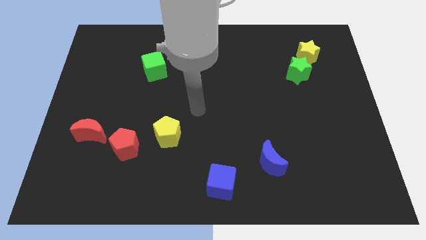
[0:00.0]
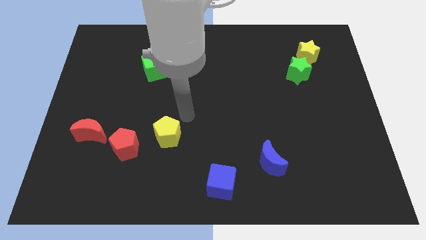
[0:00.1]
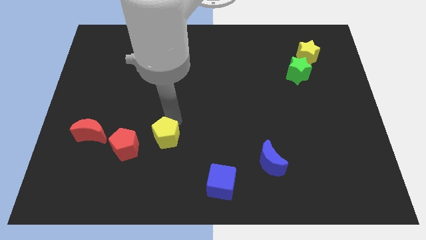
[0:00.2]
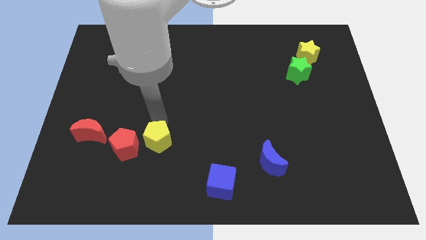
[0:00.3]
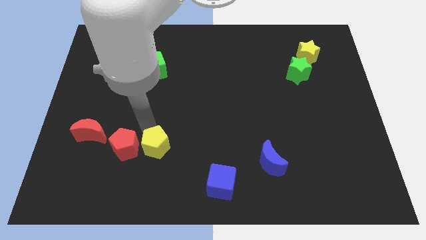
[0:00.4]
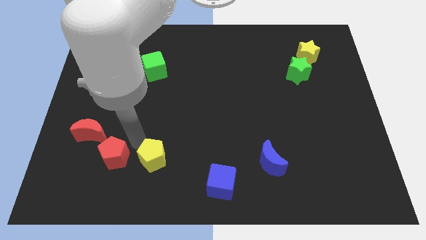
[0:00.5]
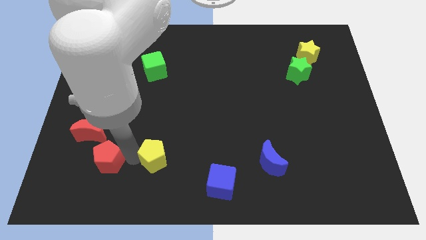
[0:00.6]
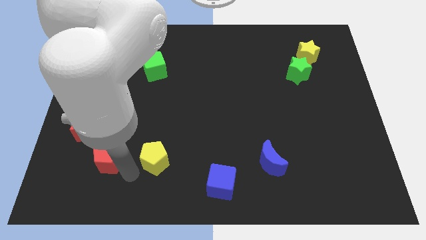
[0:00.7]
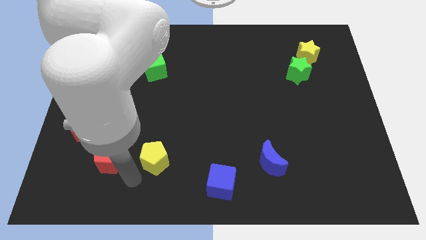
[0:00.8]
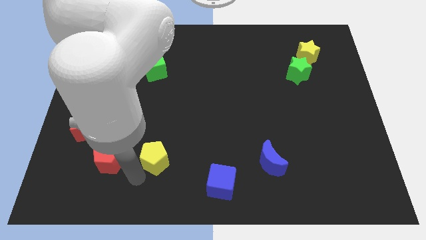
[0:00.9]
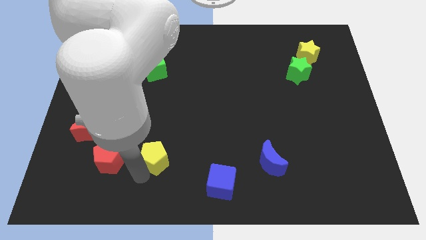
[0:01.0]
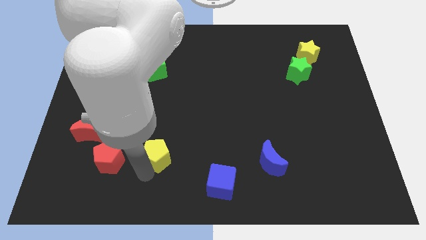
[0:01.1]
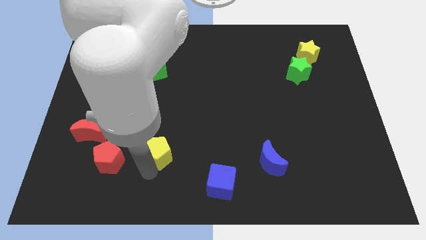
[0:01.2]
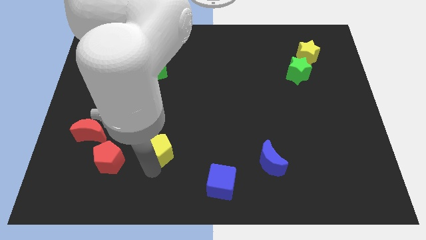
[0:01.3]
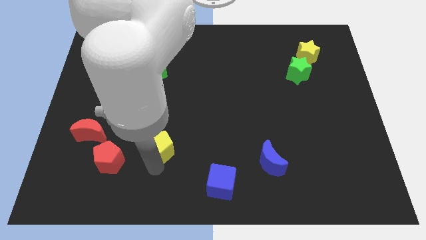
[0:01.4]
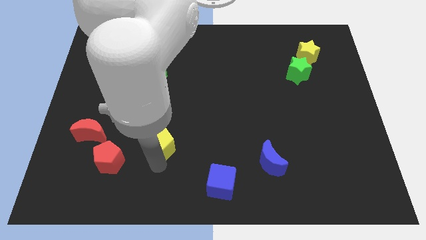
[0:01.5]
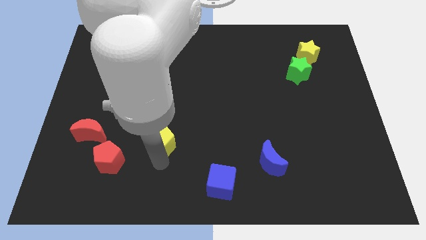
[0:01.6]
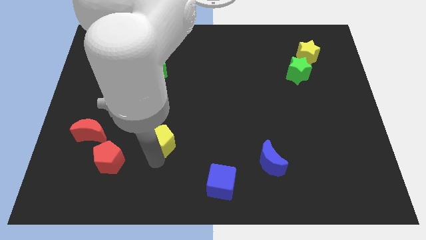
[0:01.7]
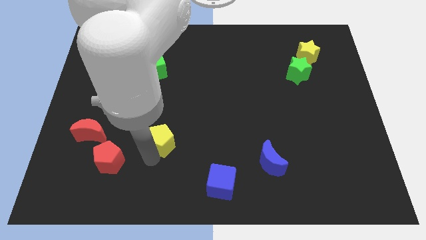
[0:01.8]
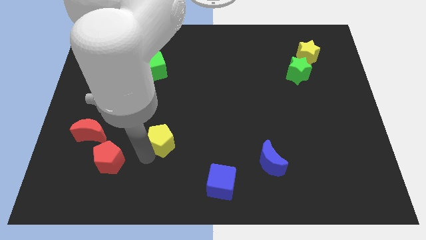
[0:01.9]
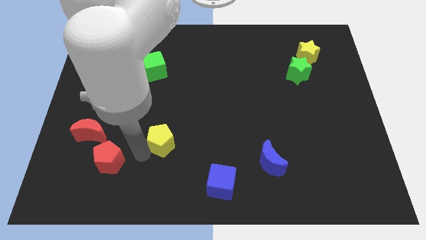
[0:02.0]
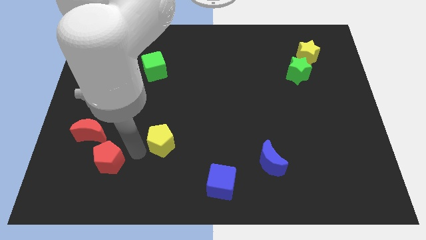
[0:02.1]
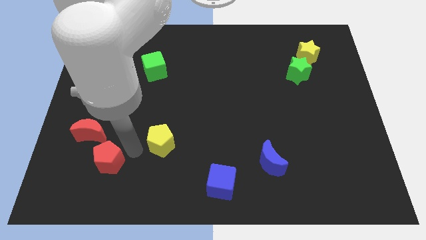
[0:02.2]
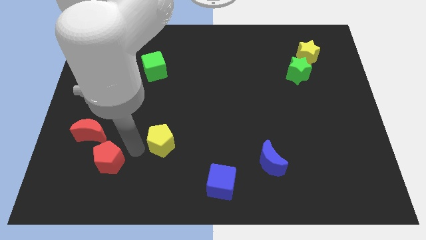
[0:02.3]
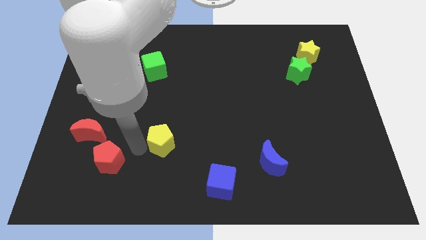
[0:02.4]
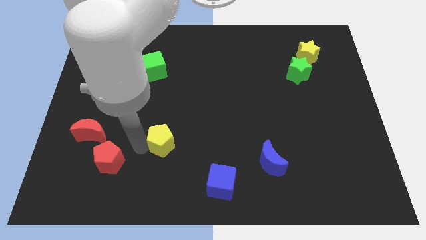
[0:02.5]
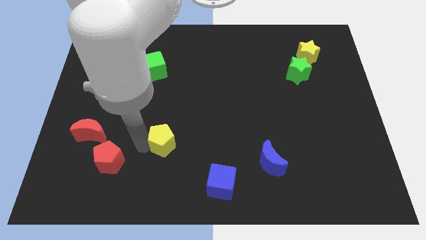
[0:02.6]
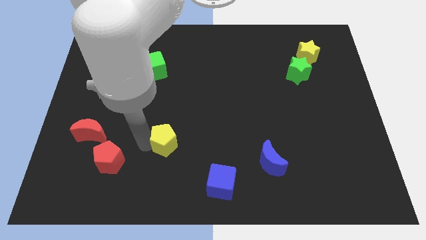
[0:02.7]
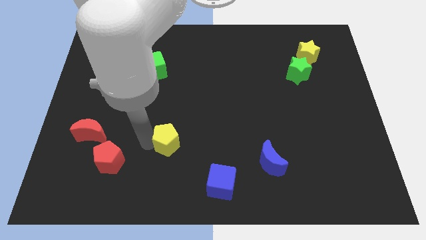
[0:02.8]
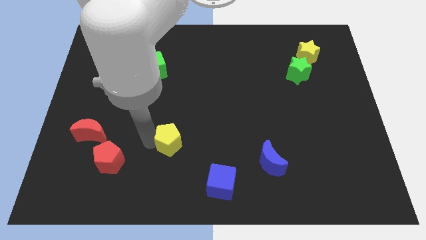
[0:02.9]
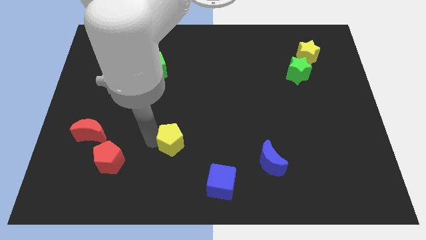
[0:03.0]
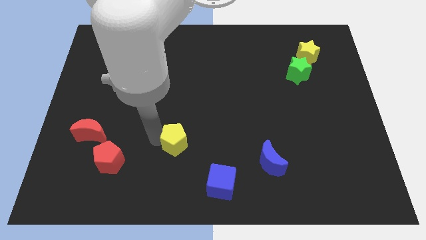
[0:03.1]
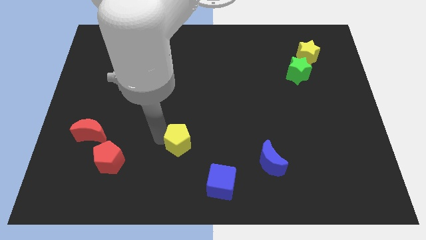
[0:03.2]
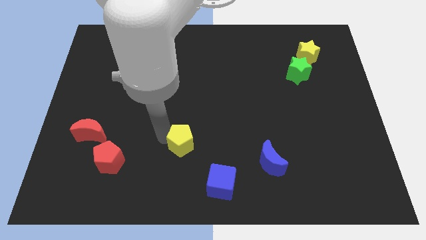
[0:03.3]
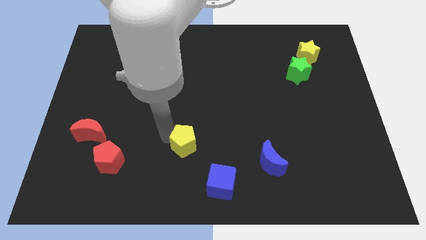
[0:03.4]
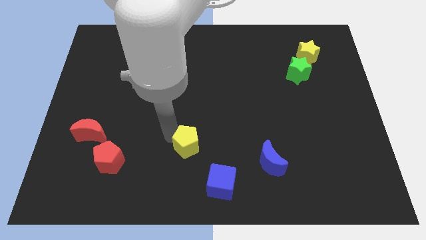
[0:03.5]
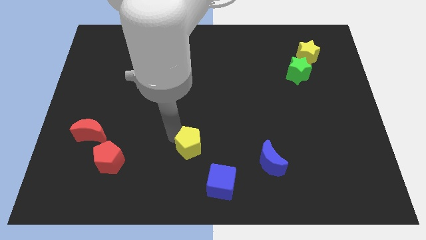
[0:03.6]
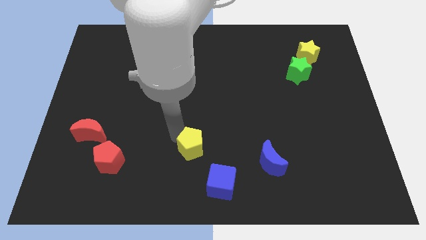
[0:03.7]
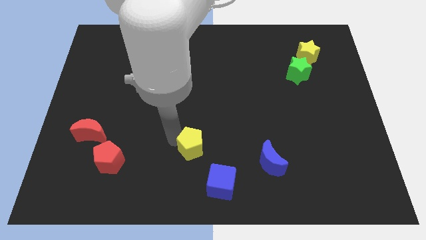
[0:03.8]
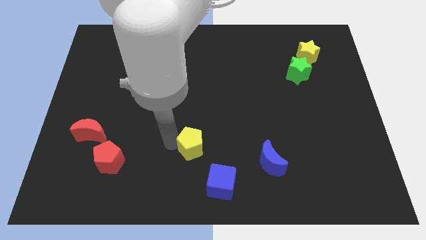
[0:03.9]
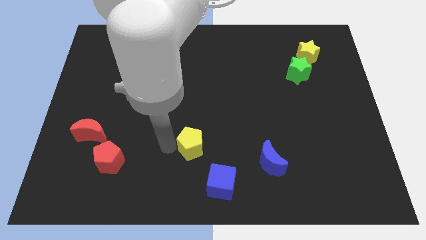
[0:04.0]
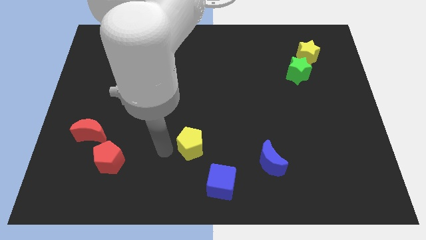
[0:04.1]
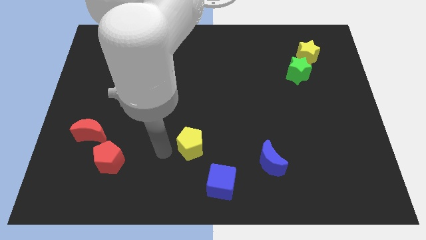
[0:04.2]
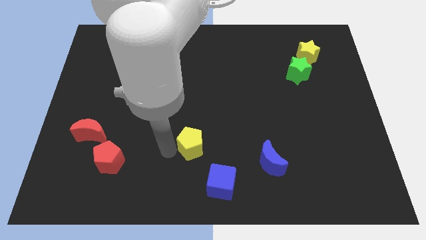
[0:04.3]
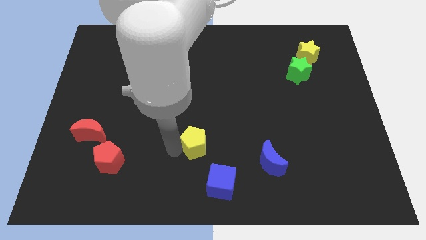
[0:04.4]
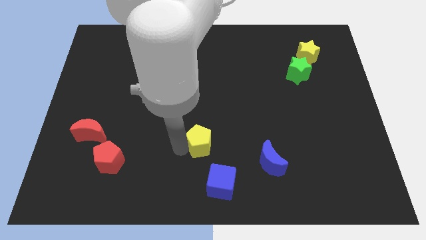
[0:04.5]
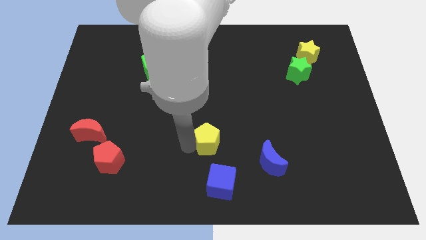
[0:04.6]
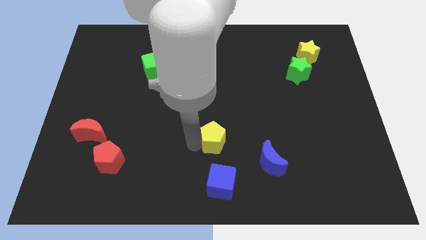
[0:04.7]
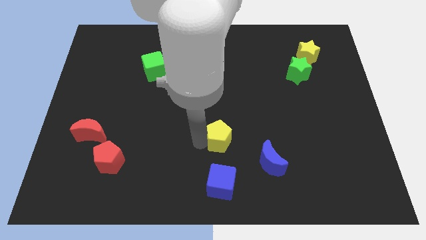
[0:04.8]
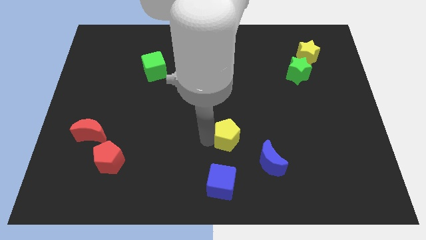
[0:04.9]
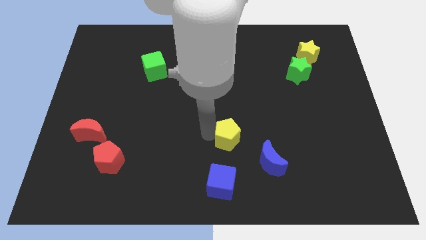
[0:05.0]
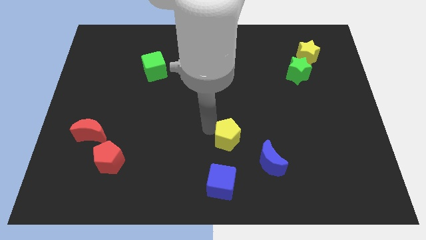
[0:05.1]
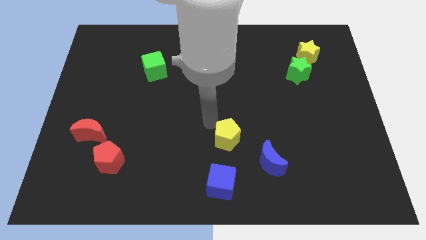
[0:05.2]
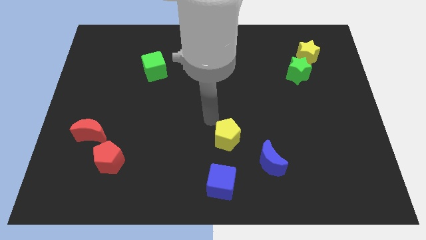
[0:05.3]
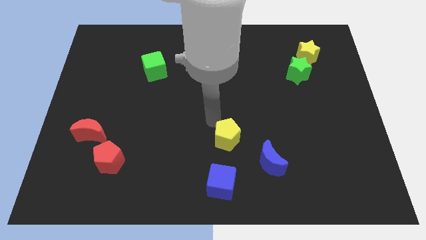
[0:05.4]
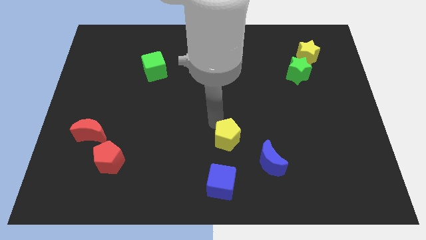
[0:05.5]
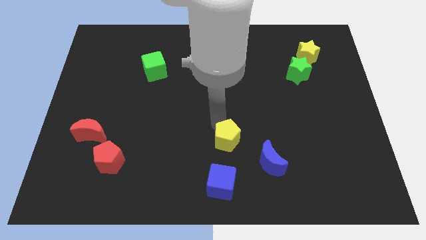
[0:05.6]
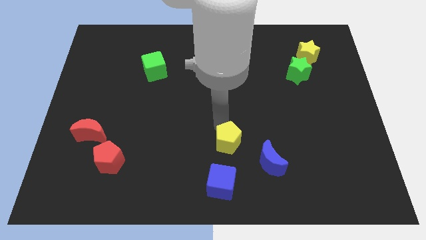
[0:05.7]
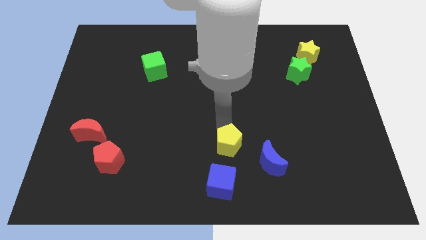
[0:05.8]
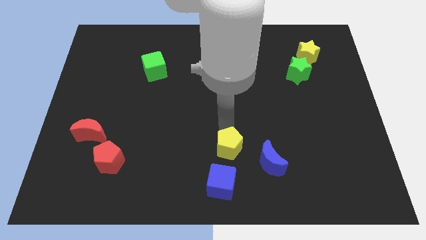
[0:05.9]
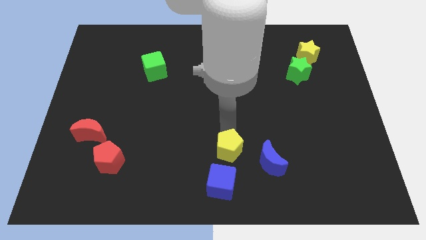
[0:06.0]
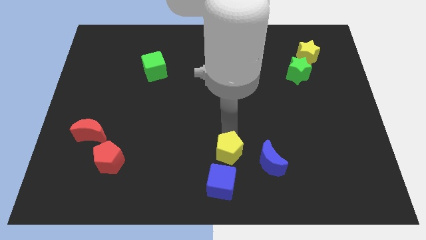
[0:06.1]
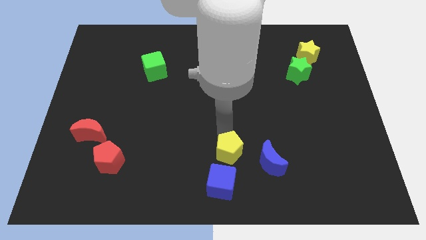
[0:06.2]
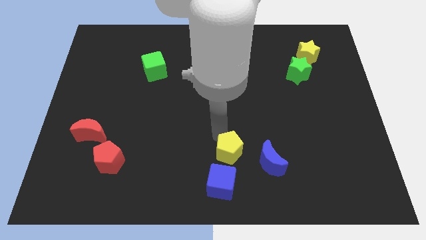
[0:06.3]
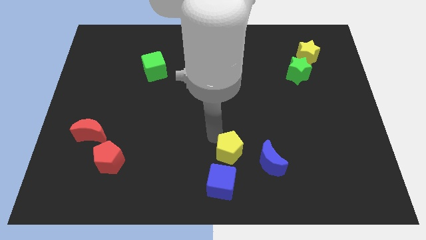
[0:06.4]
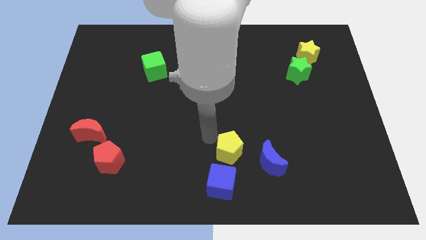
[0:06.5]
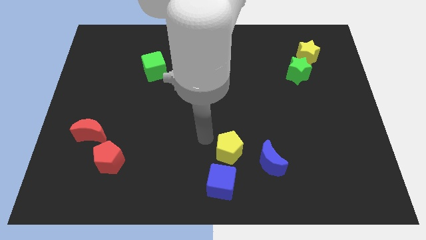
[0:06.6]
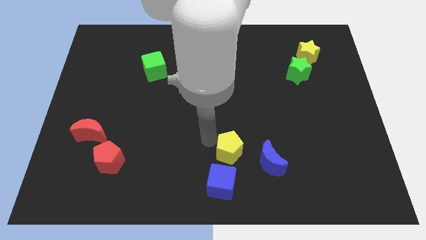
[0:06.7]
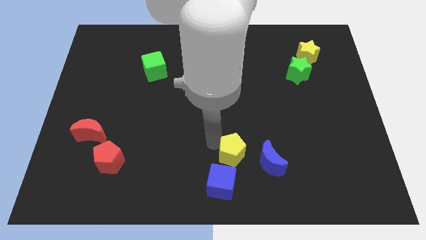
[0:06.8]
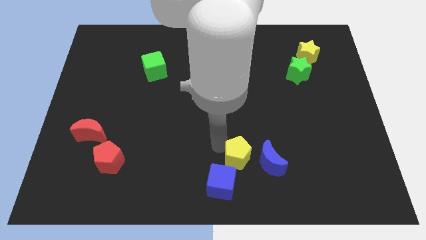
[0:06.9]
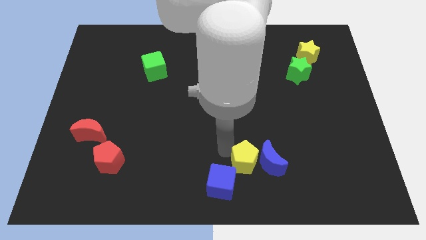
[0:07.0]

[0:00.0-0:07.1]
put the yellow pentagon towards the blue moon
